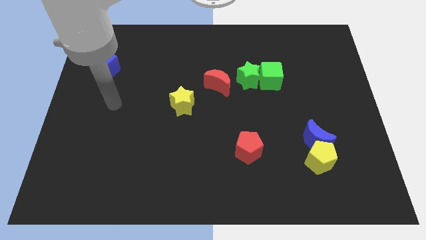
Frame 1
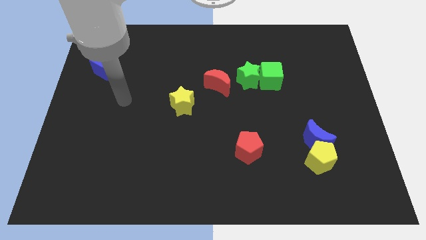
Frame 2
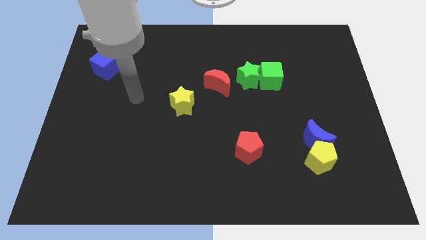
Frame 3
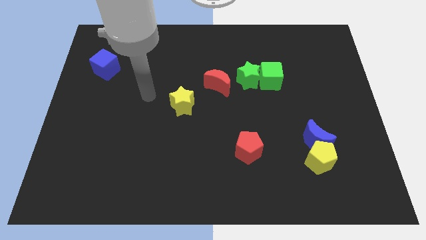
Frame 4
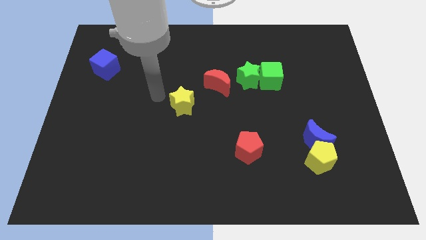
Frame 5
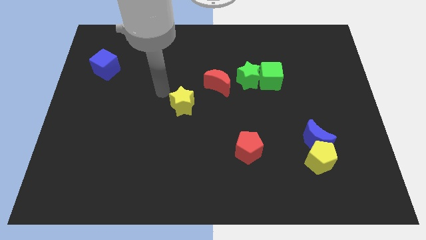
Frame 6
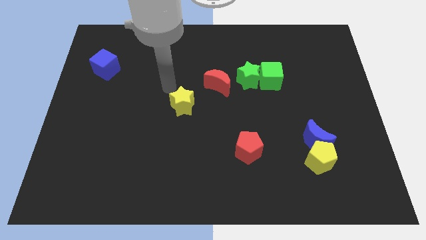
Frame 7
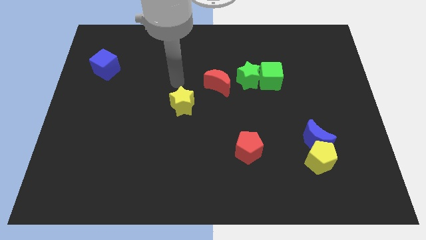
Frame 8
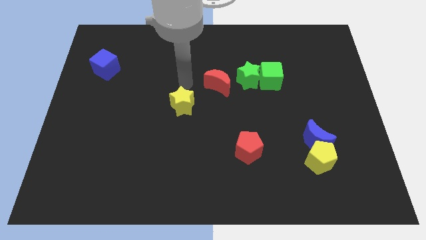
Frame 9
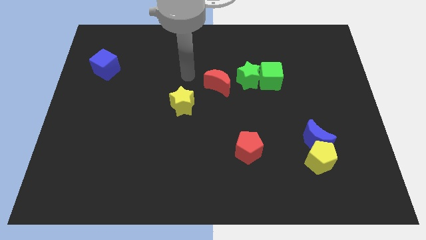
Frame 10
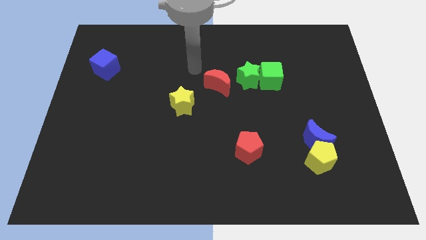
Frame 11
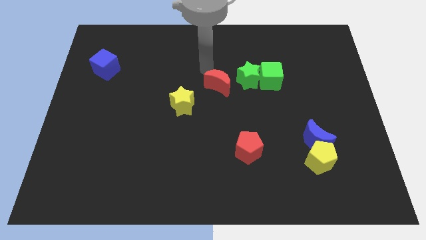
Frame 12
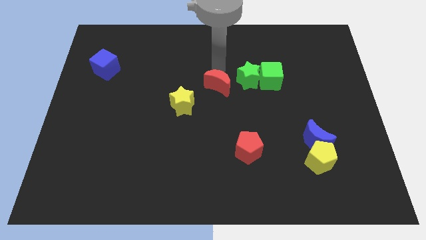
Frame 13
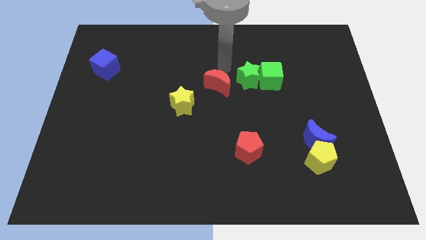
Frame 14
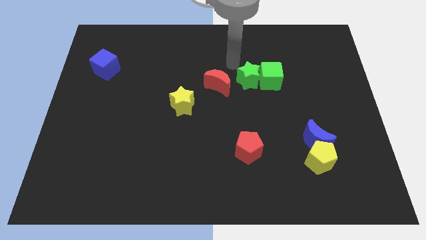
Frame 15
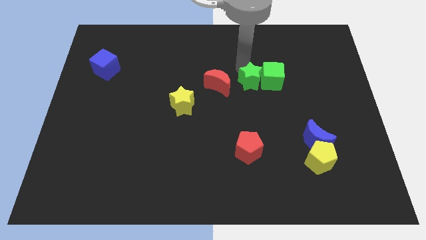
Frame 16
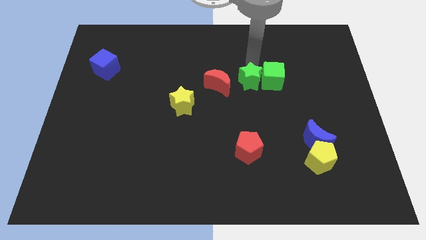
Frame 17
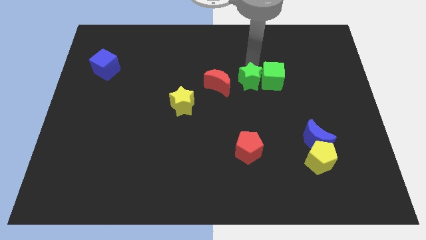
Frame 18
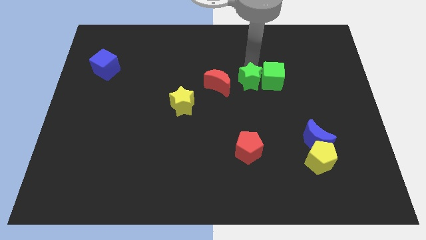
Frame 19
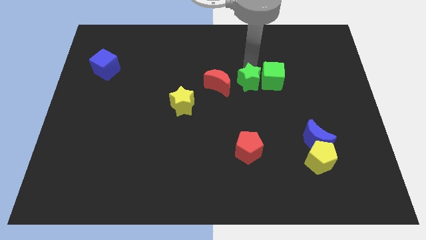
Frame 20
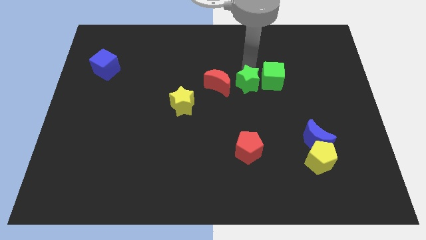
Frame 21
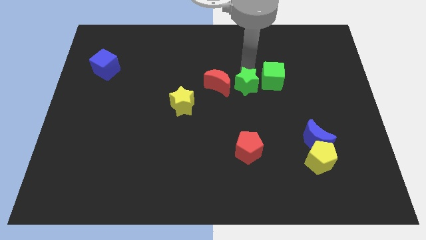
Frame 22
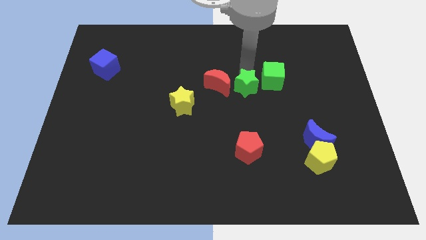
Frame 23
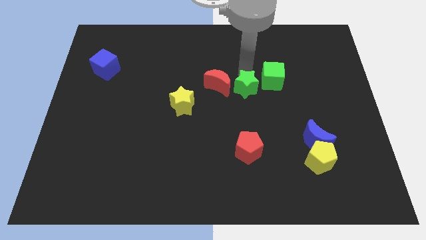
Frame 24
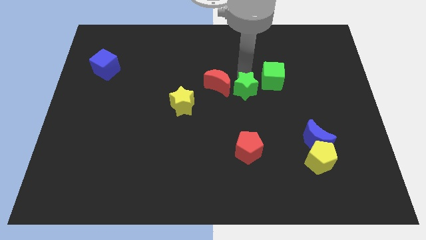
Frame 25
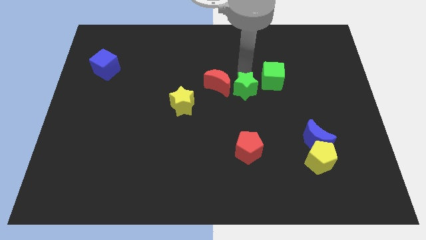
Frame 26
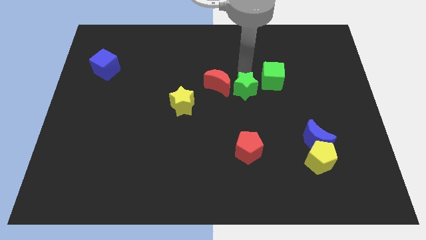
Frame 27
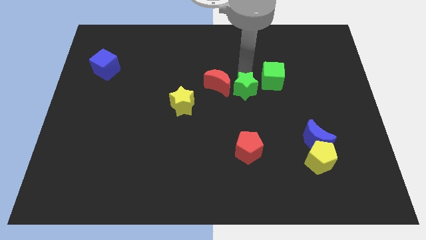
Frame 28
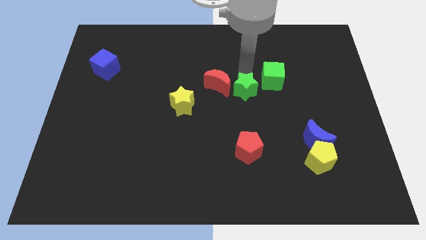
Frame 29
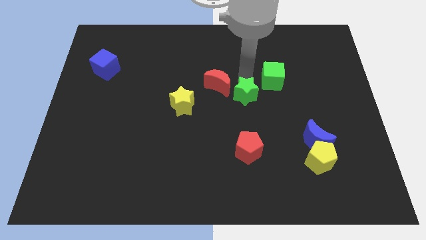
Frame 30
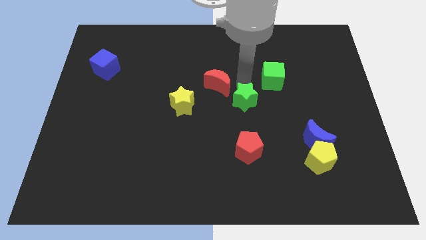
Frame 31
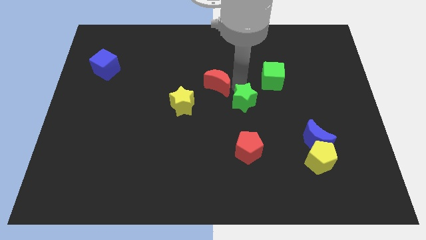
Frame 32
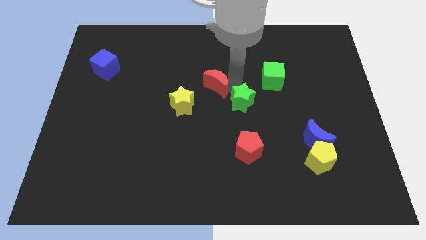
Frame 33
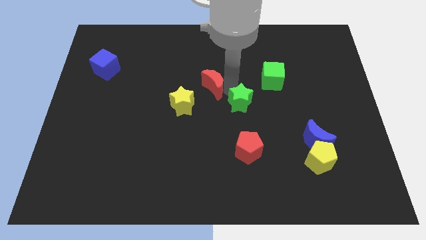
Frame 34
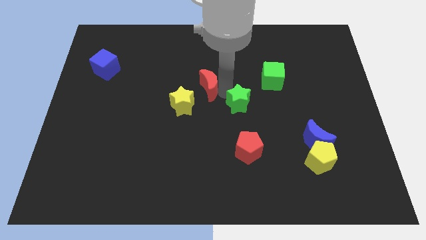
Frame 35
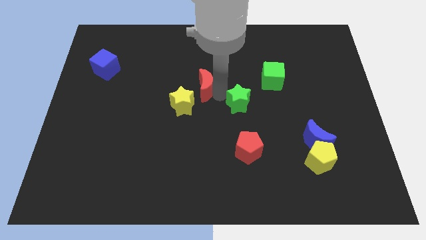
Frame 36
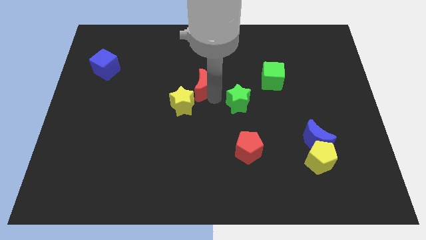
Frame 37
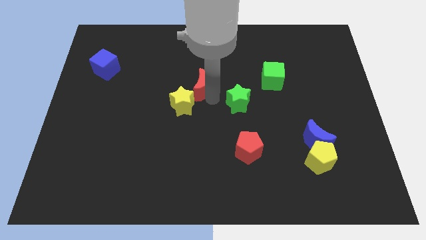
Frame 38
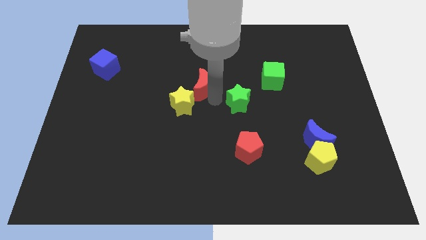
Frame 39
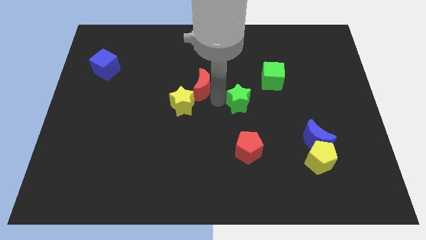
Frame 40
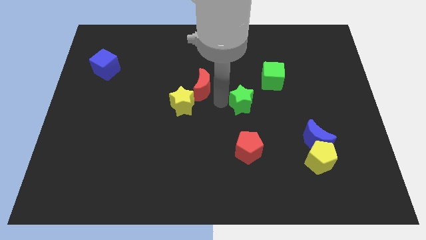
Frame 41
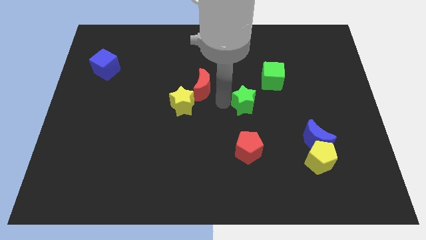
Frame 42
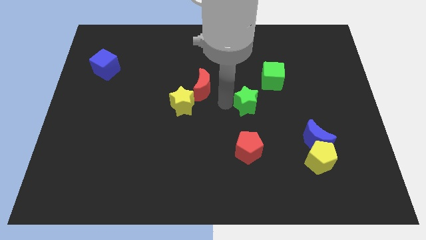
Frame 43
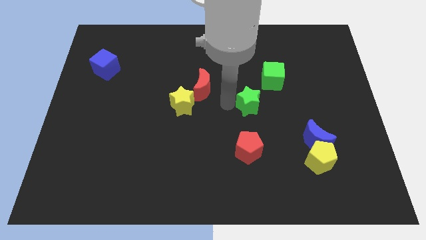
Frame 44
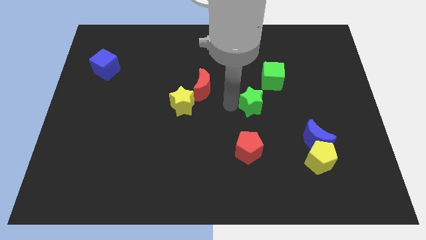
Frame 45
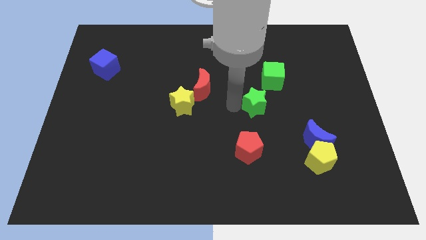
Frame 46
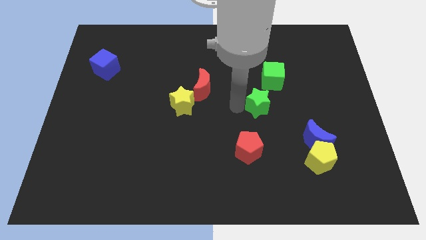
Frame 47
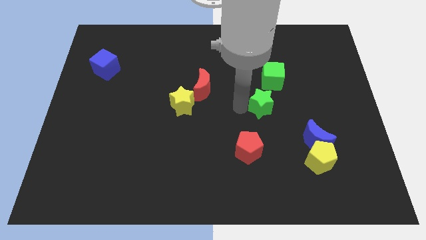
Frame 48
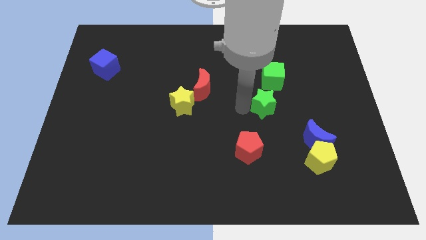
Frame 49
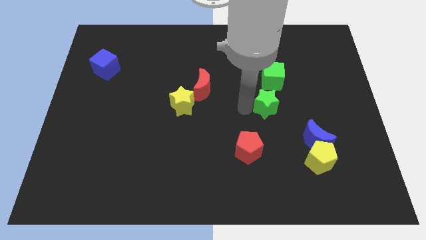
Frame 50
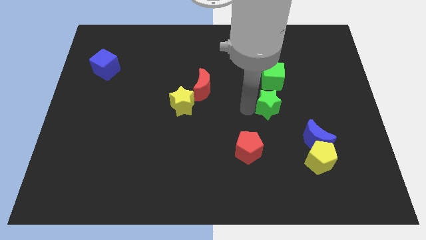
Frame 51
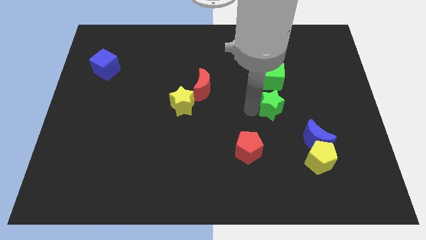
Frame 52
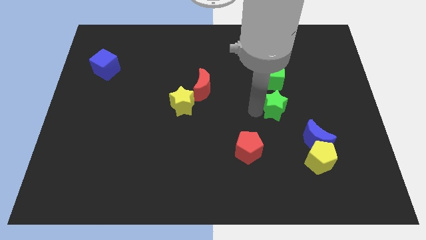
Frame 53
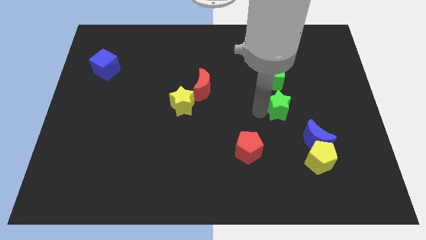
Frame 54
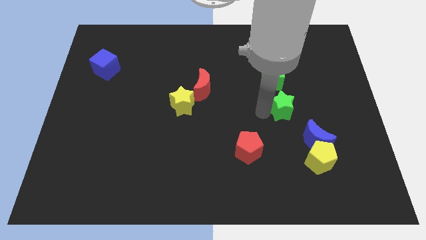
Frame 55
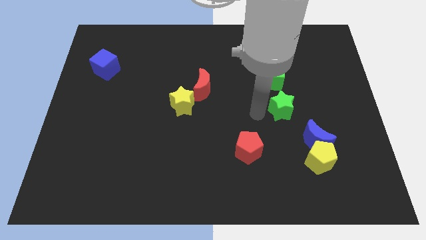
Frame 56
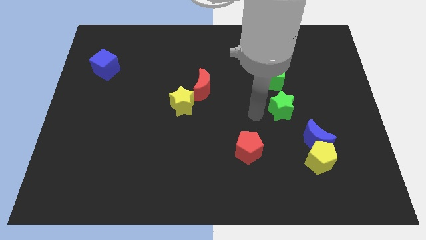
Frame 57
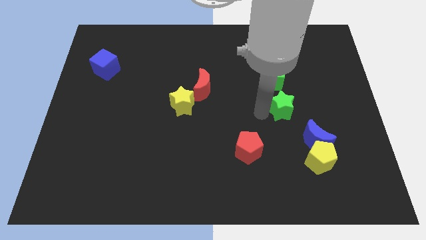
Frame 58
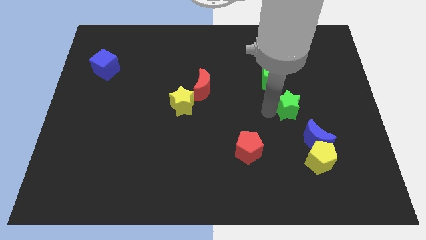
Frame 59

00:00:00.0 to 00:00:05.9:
push the green star to the top side of the blue moon

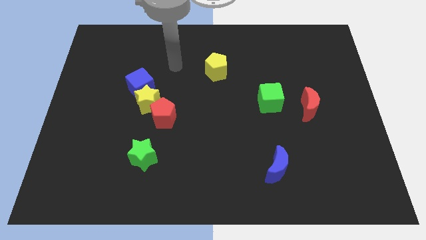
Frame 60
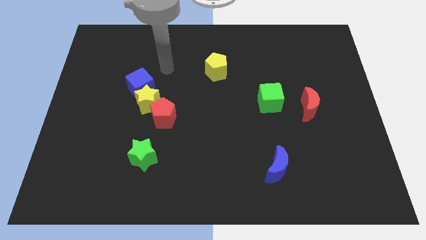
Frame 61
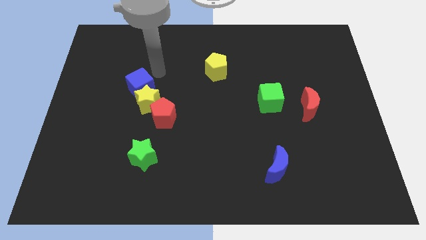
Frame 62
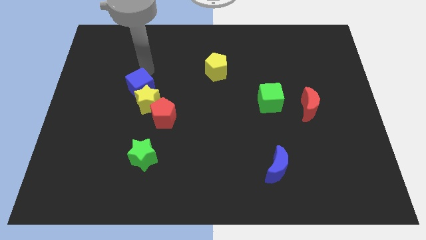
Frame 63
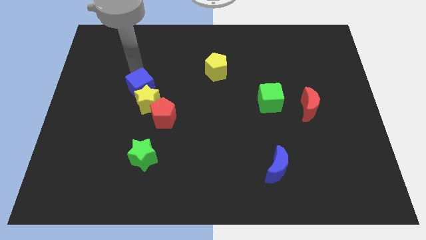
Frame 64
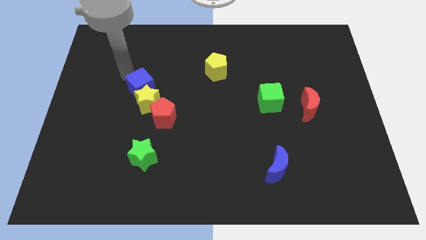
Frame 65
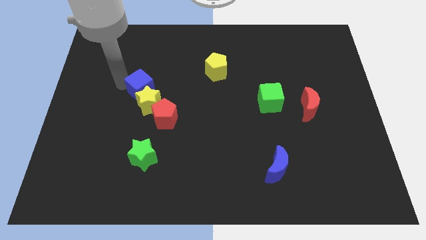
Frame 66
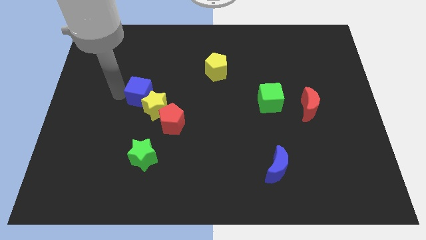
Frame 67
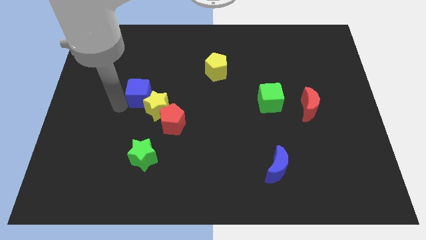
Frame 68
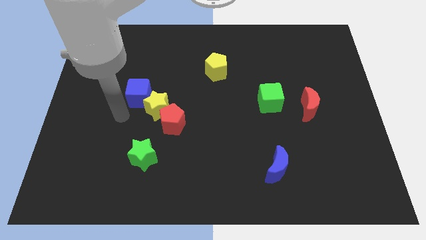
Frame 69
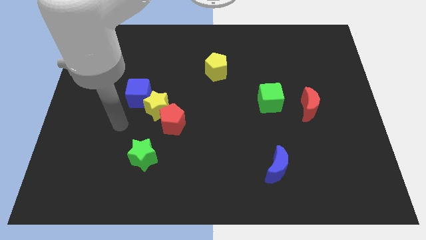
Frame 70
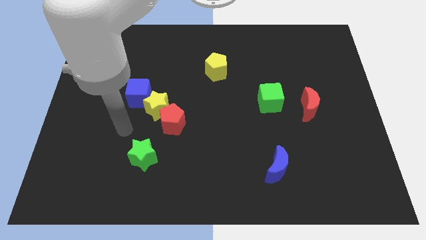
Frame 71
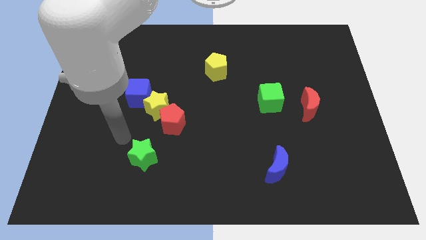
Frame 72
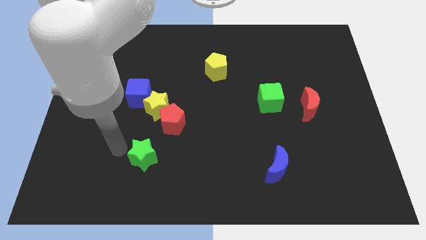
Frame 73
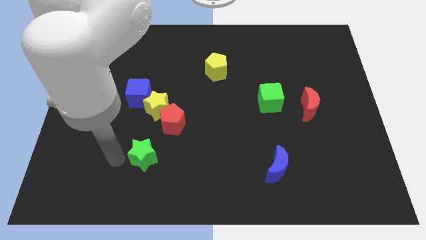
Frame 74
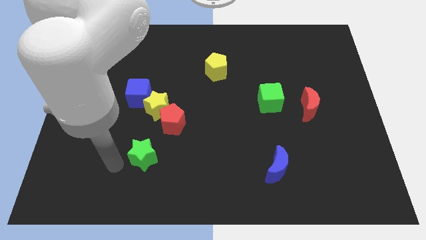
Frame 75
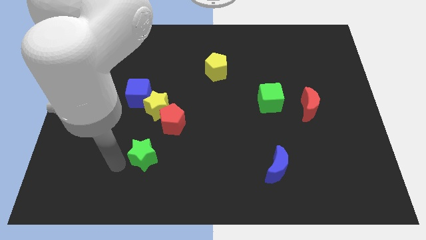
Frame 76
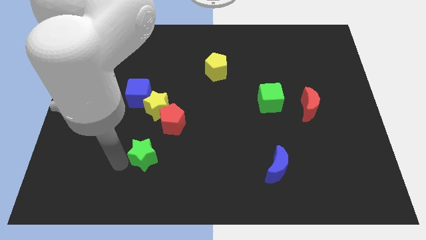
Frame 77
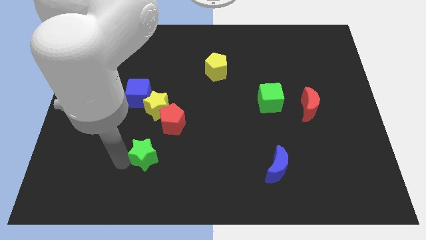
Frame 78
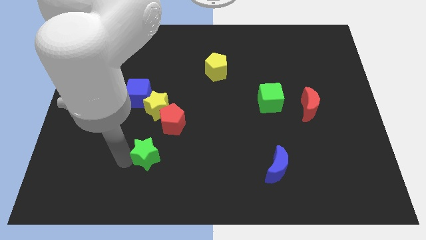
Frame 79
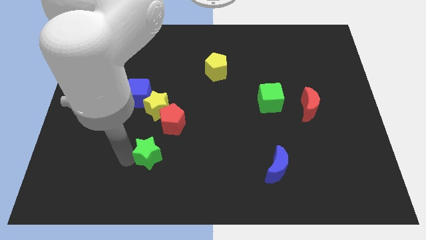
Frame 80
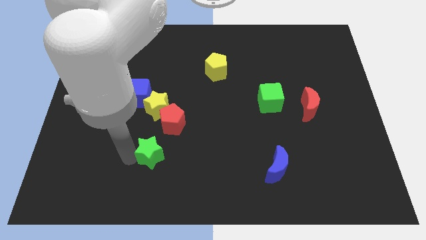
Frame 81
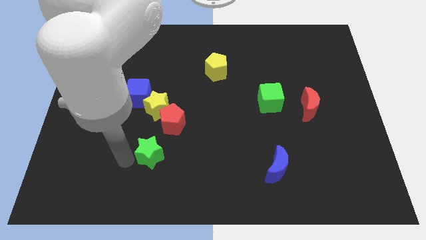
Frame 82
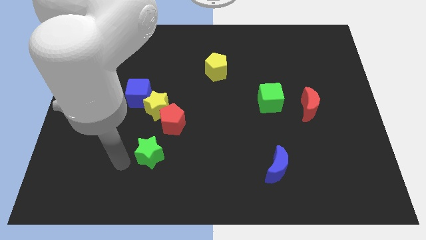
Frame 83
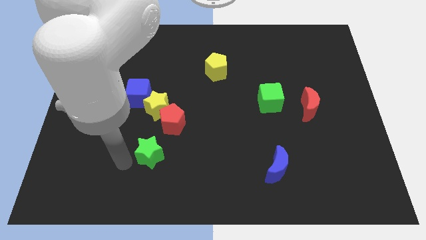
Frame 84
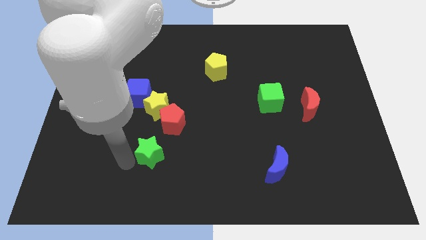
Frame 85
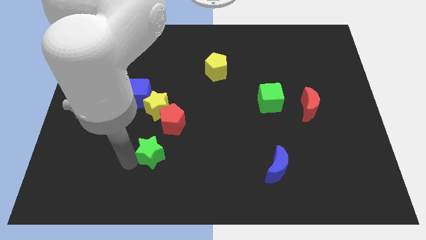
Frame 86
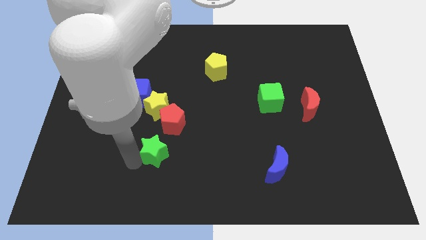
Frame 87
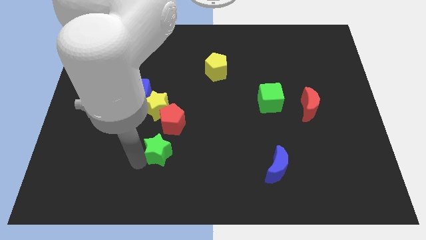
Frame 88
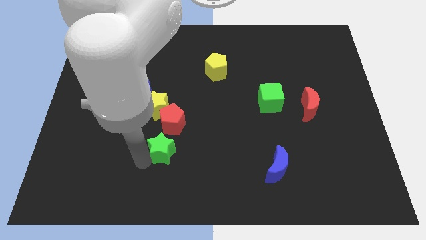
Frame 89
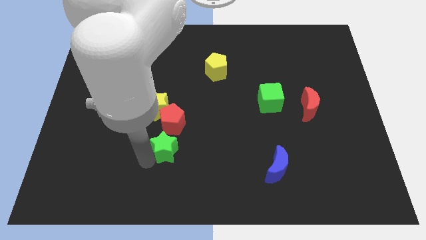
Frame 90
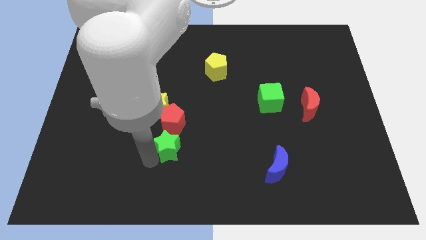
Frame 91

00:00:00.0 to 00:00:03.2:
slide the green star diagonally down and to the right of the red pentagon
